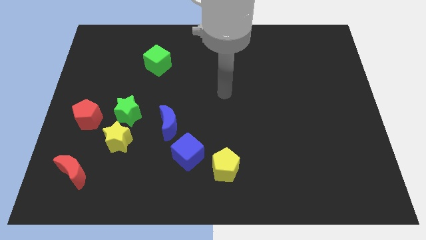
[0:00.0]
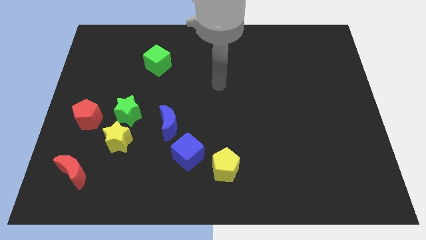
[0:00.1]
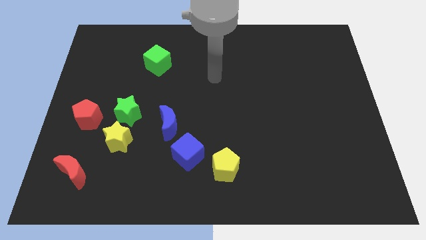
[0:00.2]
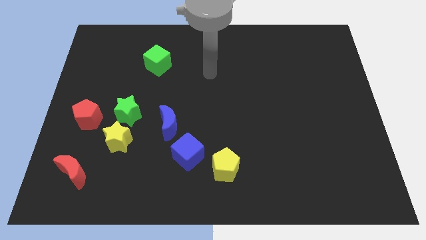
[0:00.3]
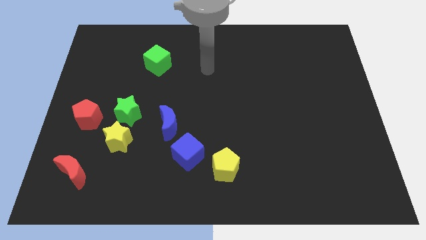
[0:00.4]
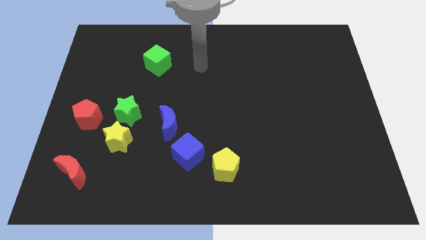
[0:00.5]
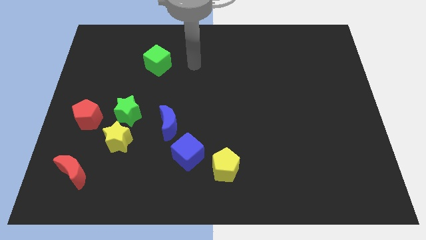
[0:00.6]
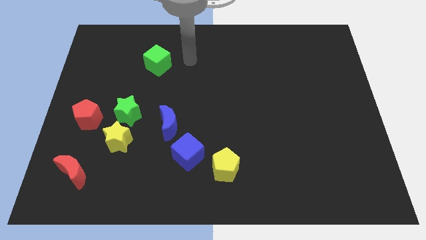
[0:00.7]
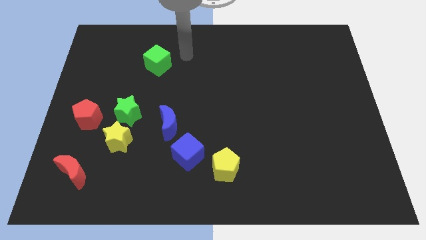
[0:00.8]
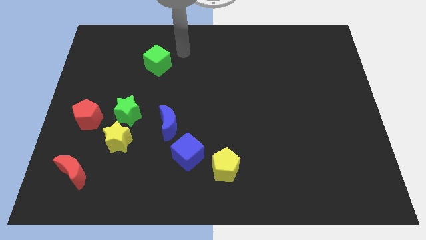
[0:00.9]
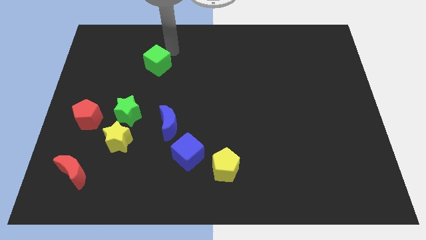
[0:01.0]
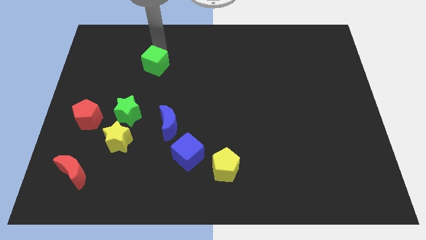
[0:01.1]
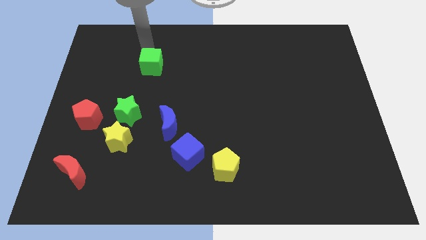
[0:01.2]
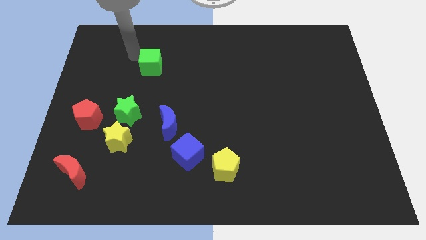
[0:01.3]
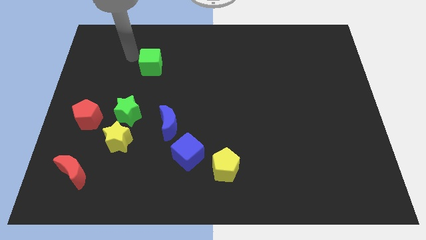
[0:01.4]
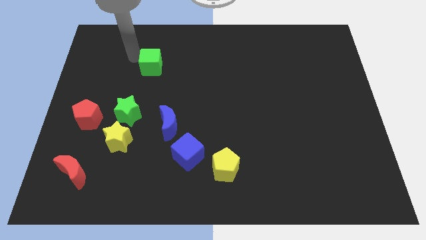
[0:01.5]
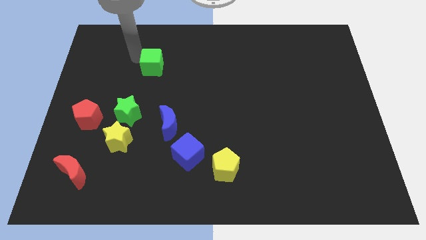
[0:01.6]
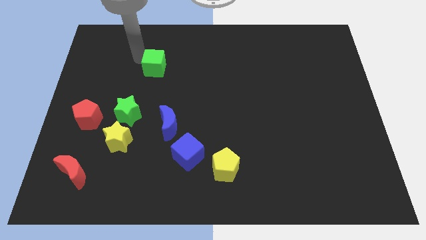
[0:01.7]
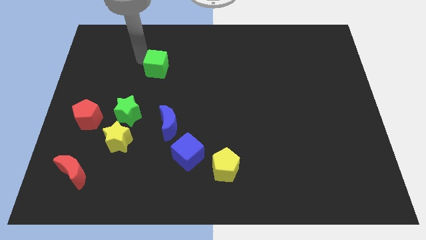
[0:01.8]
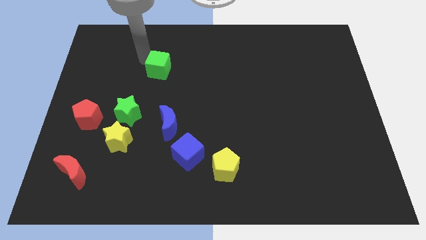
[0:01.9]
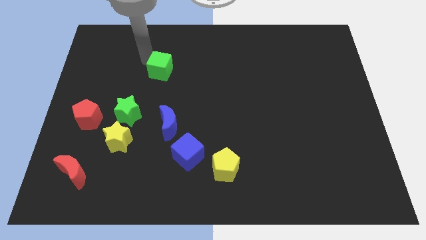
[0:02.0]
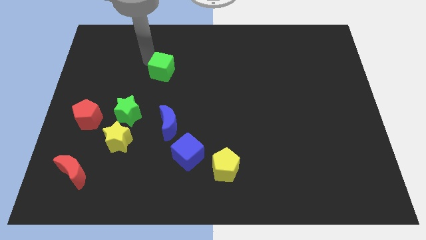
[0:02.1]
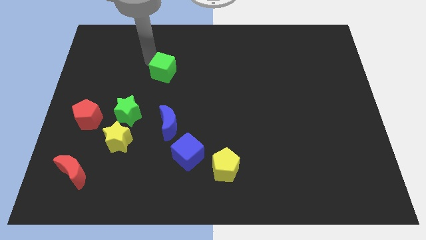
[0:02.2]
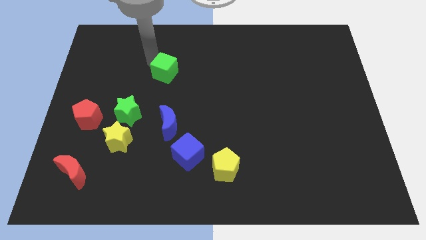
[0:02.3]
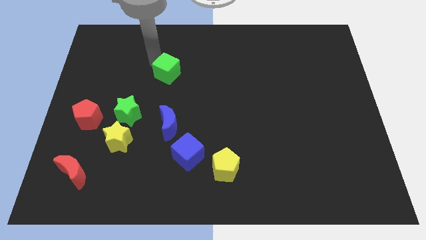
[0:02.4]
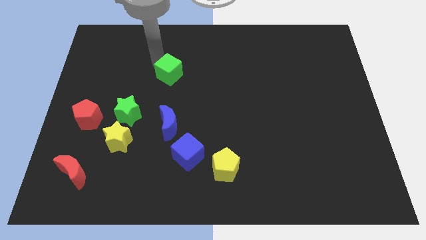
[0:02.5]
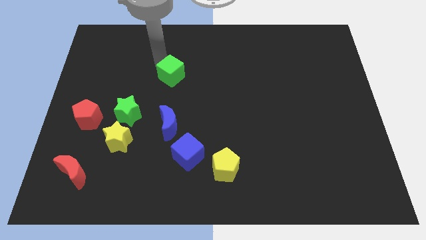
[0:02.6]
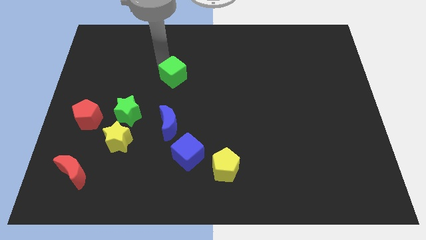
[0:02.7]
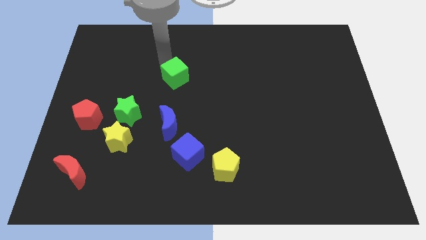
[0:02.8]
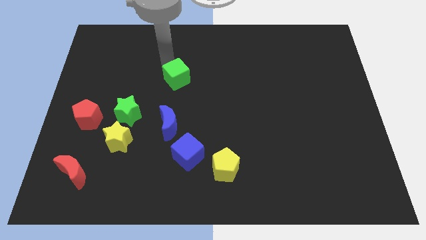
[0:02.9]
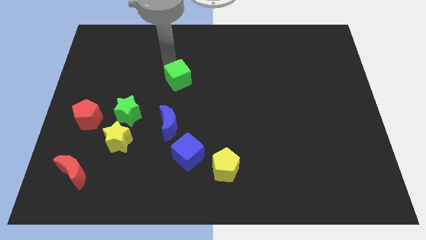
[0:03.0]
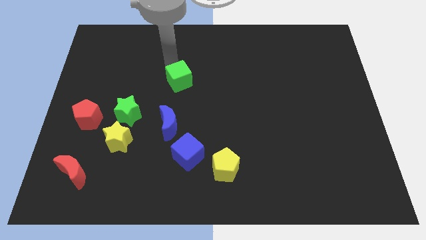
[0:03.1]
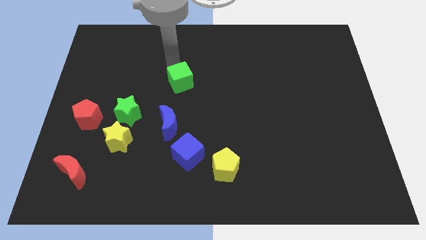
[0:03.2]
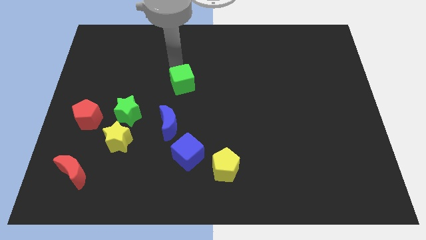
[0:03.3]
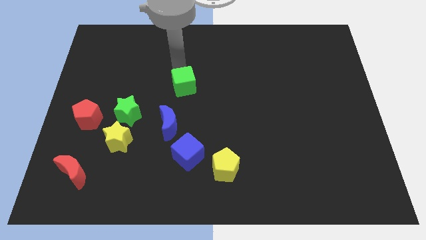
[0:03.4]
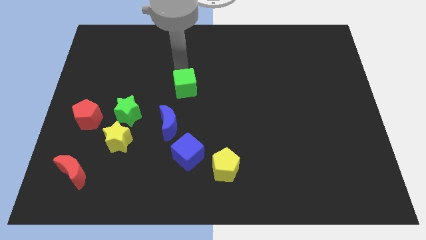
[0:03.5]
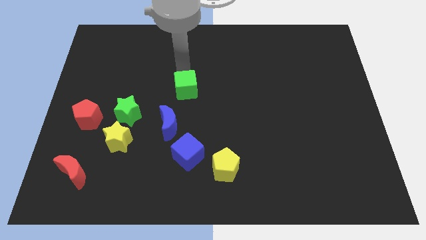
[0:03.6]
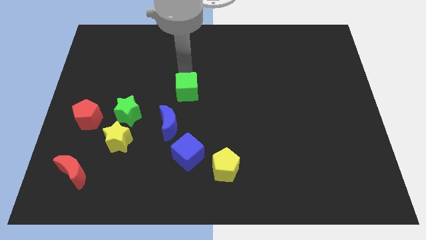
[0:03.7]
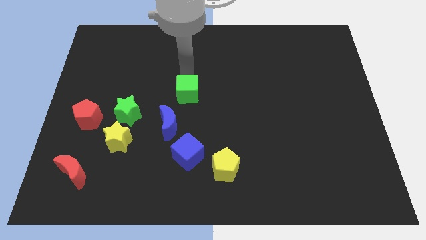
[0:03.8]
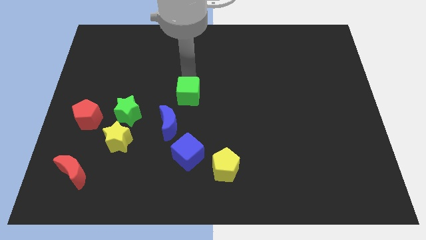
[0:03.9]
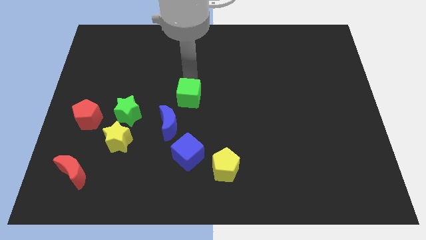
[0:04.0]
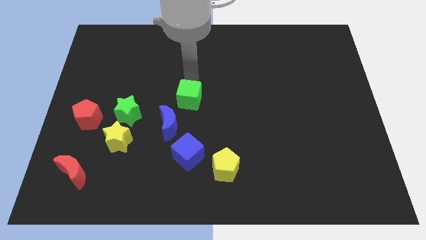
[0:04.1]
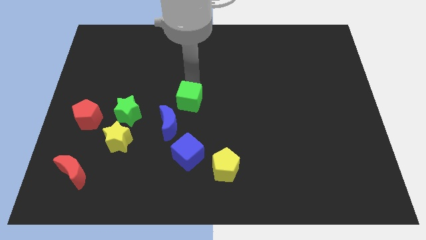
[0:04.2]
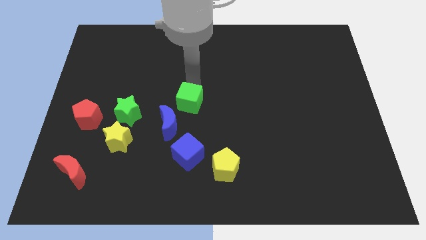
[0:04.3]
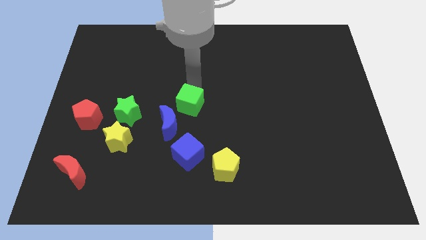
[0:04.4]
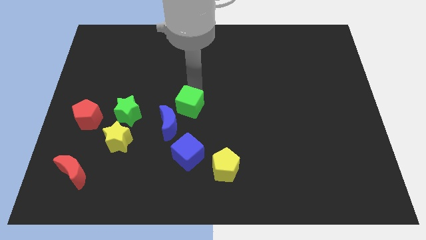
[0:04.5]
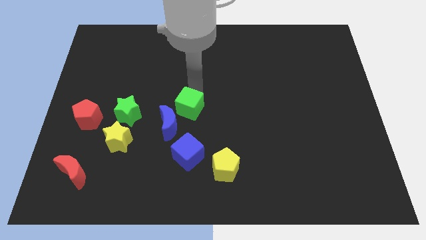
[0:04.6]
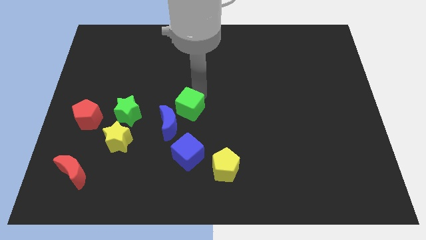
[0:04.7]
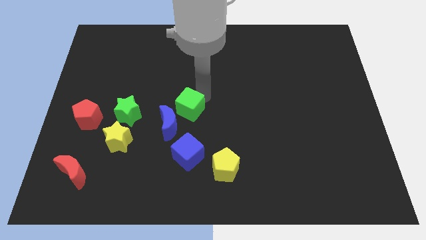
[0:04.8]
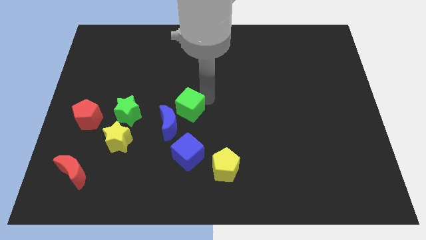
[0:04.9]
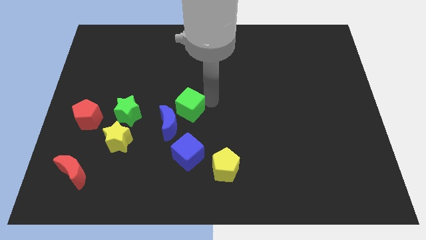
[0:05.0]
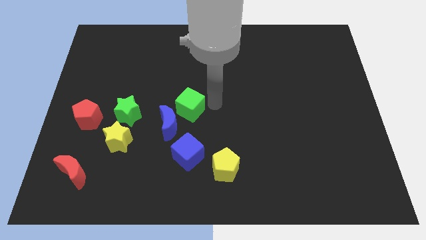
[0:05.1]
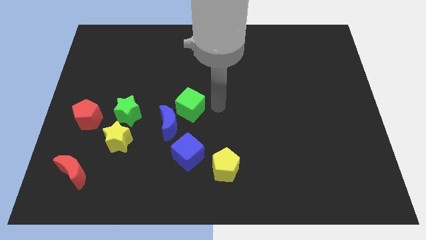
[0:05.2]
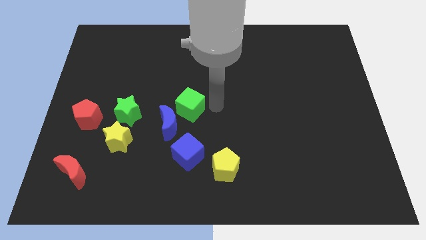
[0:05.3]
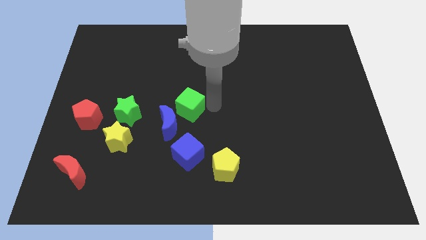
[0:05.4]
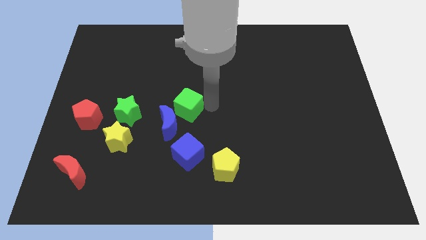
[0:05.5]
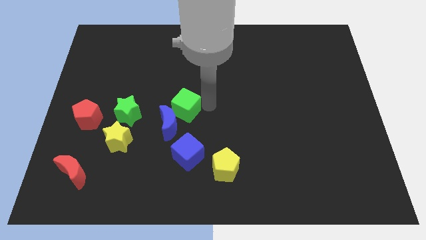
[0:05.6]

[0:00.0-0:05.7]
put the green cube to the blue moon
